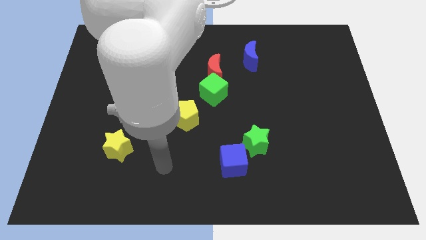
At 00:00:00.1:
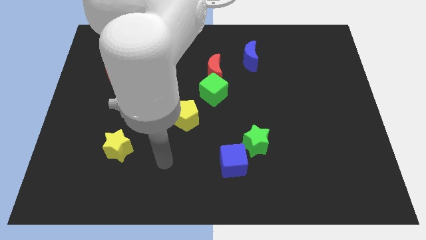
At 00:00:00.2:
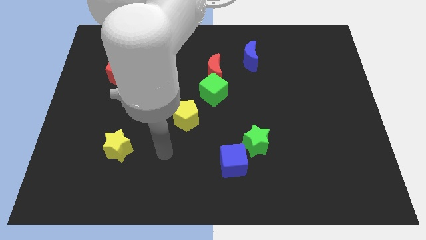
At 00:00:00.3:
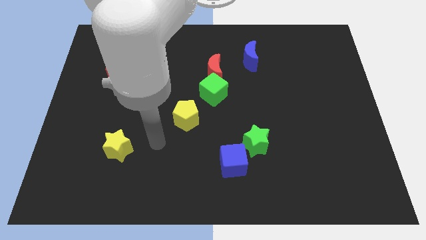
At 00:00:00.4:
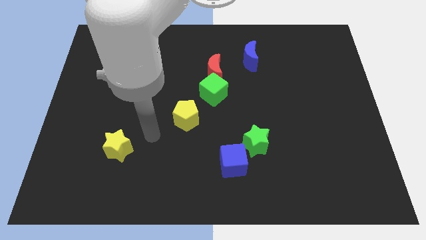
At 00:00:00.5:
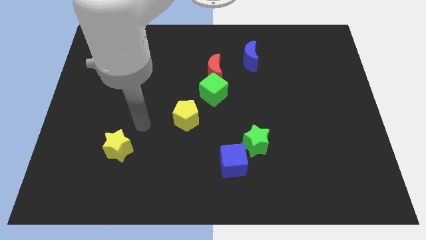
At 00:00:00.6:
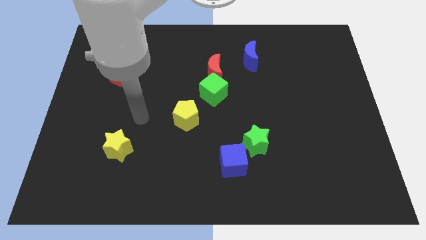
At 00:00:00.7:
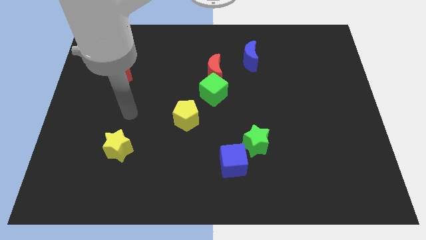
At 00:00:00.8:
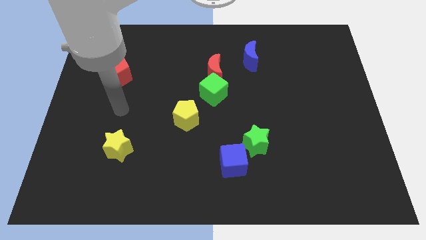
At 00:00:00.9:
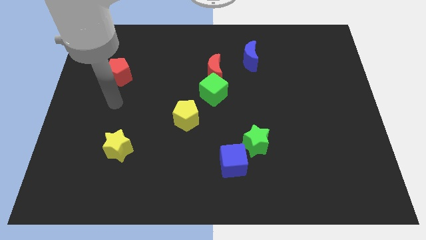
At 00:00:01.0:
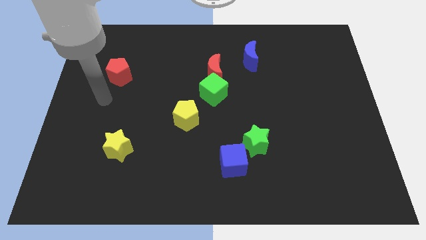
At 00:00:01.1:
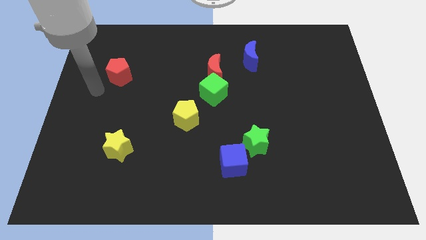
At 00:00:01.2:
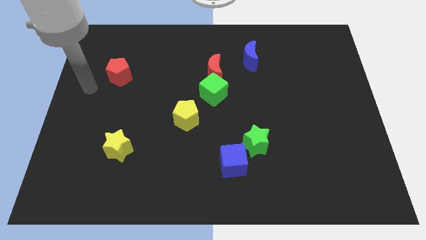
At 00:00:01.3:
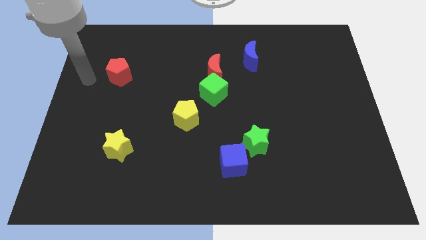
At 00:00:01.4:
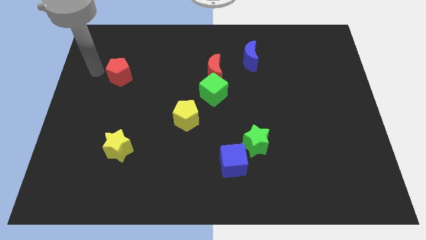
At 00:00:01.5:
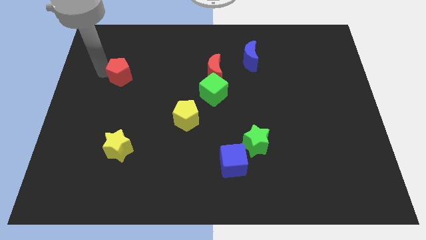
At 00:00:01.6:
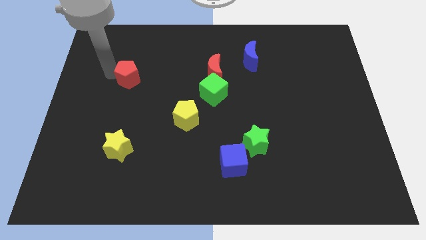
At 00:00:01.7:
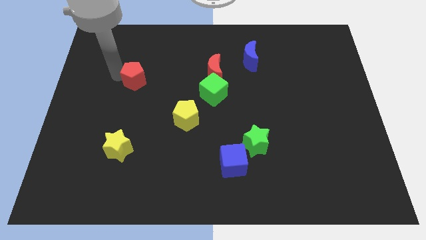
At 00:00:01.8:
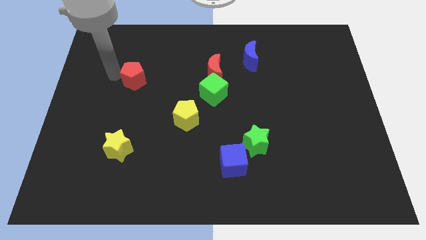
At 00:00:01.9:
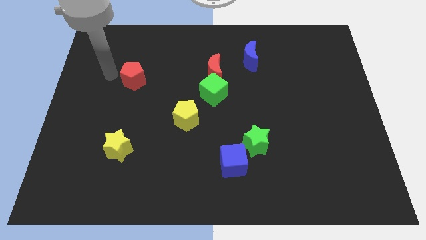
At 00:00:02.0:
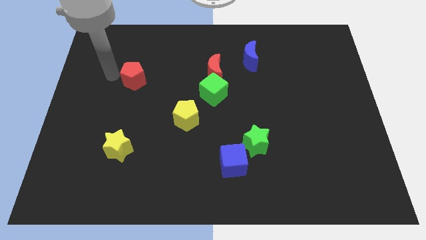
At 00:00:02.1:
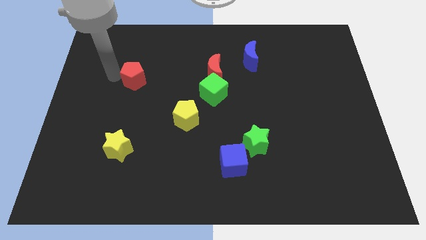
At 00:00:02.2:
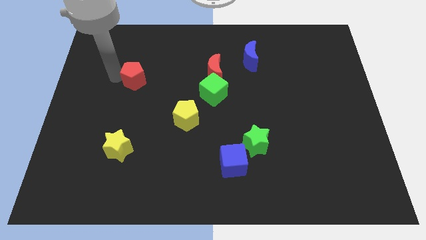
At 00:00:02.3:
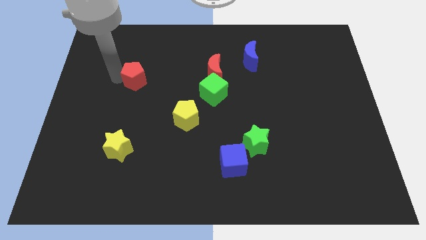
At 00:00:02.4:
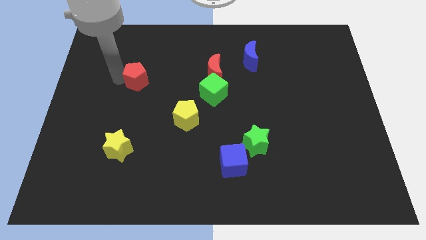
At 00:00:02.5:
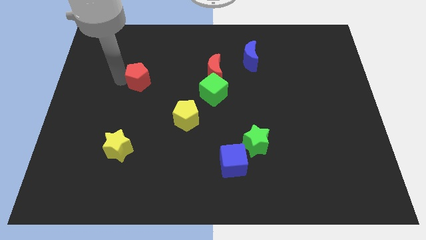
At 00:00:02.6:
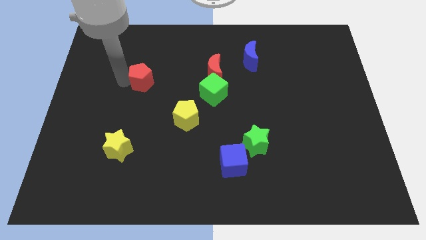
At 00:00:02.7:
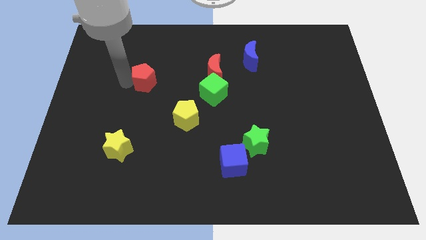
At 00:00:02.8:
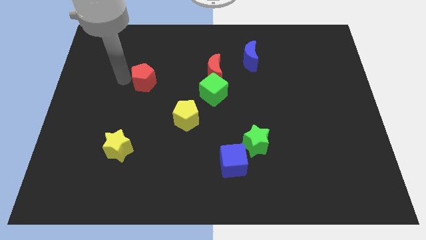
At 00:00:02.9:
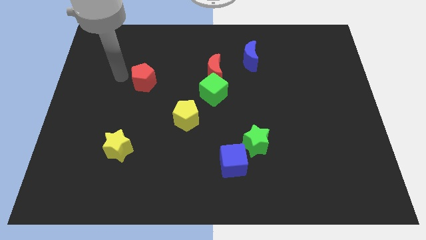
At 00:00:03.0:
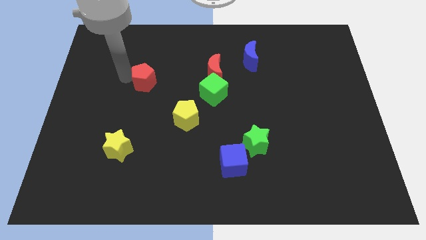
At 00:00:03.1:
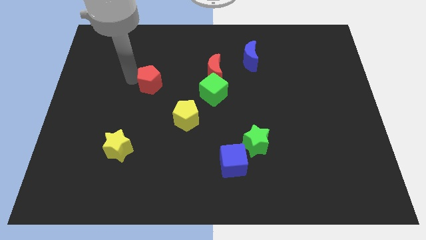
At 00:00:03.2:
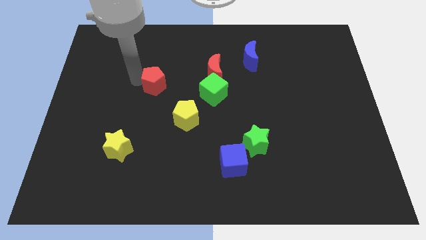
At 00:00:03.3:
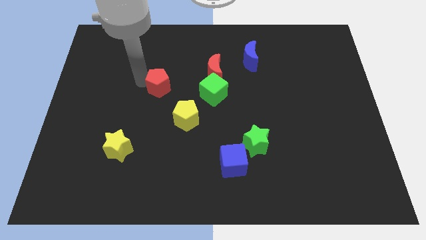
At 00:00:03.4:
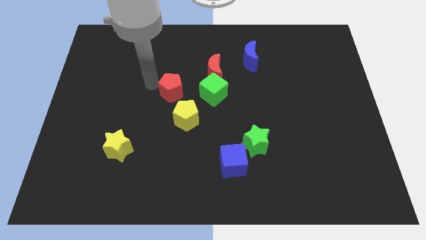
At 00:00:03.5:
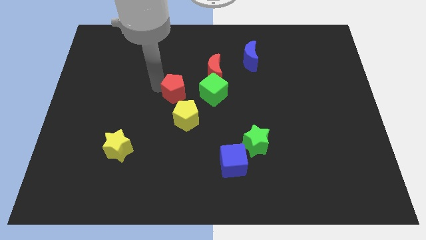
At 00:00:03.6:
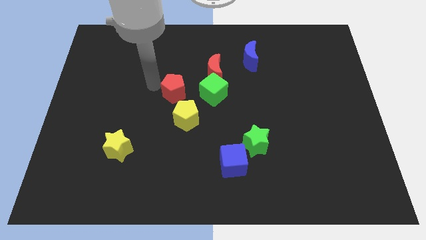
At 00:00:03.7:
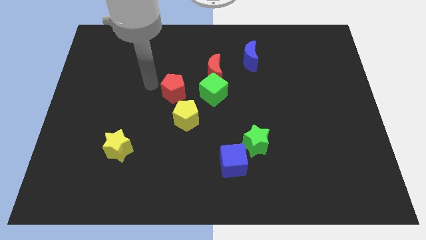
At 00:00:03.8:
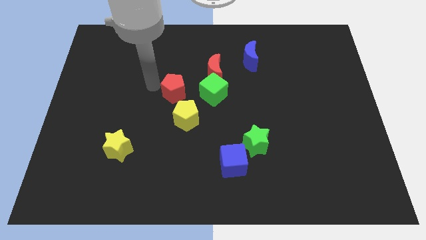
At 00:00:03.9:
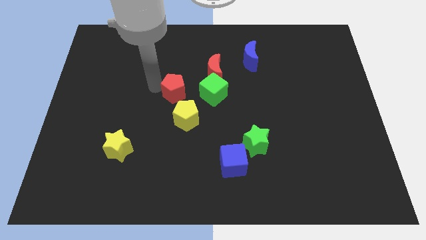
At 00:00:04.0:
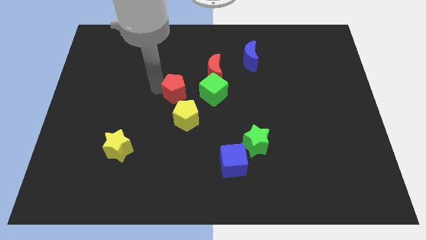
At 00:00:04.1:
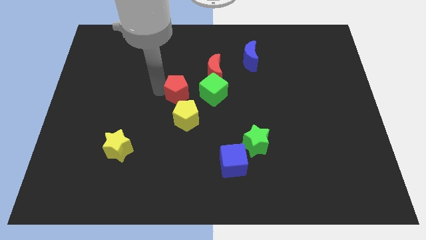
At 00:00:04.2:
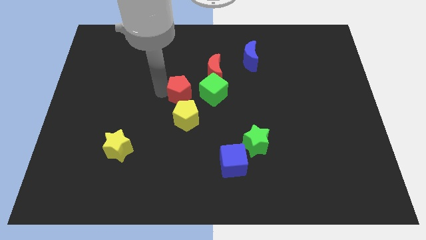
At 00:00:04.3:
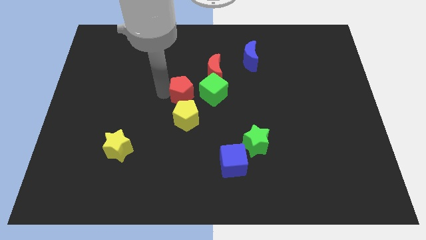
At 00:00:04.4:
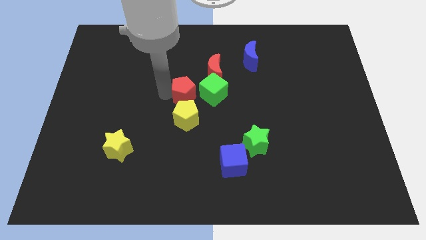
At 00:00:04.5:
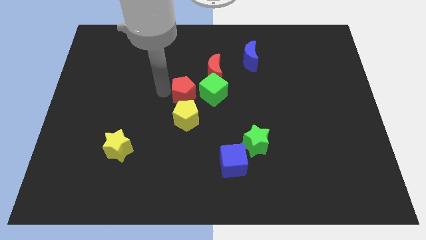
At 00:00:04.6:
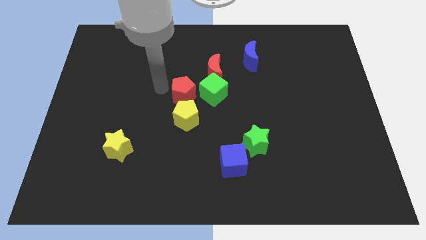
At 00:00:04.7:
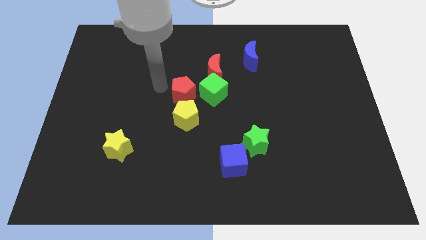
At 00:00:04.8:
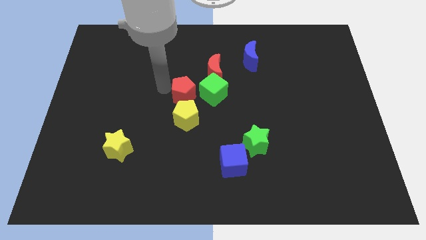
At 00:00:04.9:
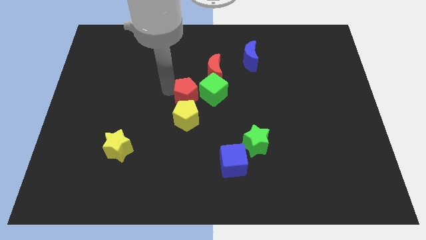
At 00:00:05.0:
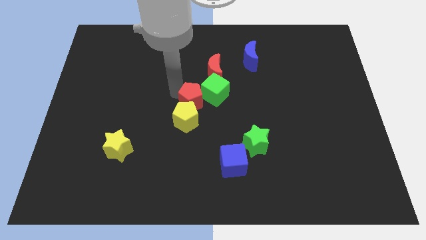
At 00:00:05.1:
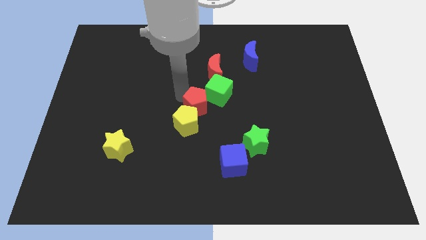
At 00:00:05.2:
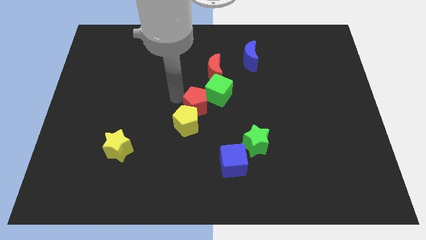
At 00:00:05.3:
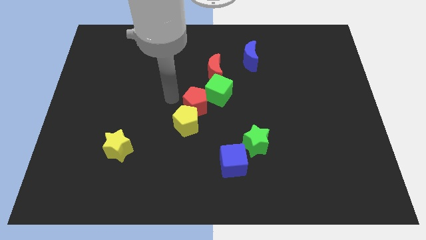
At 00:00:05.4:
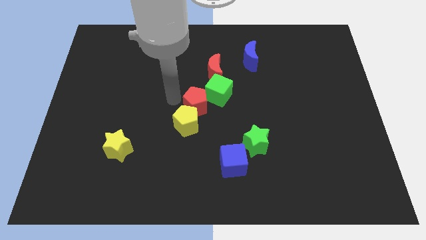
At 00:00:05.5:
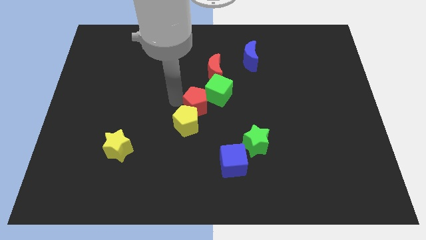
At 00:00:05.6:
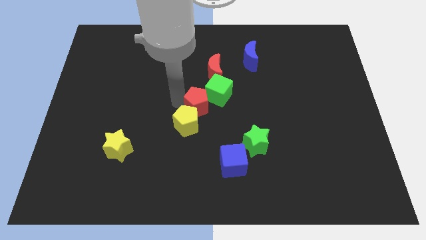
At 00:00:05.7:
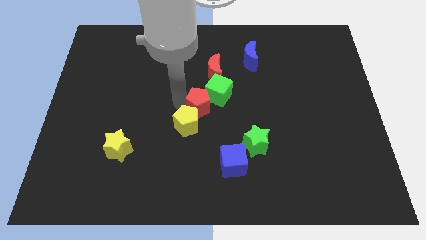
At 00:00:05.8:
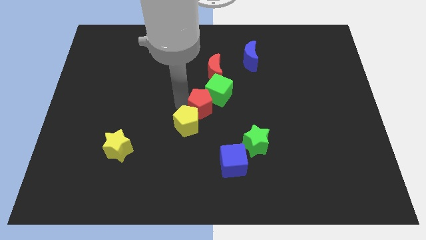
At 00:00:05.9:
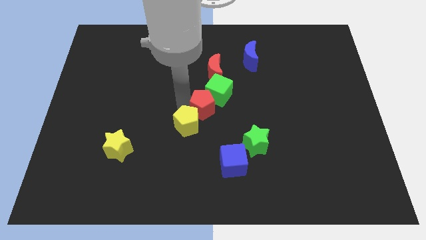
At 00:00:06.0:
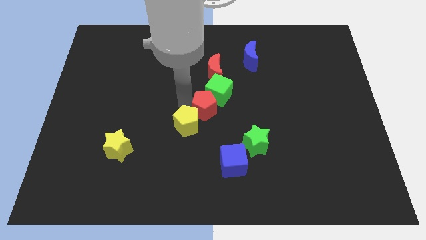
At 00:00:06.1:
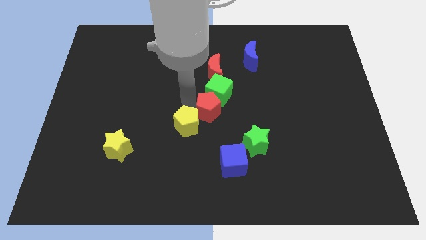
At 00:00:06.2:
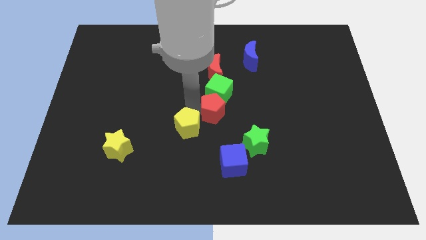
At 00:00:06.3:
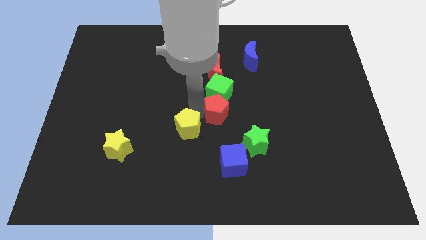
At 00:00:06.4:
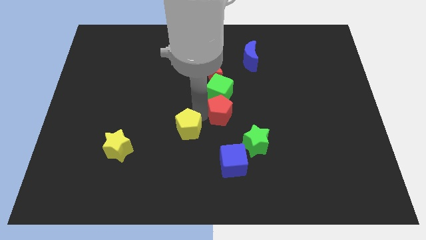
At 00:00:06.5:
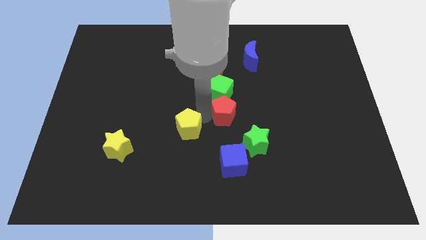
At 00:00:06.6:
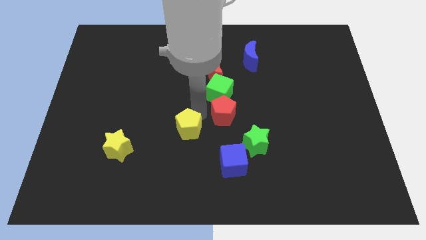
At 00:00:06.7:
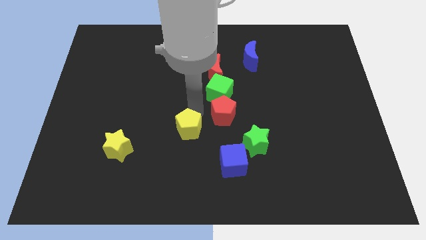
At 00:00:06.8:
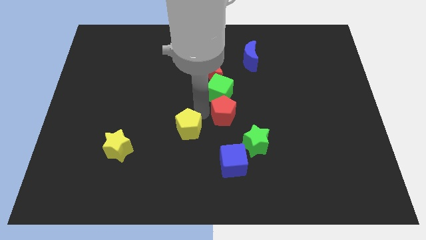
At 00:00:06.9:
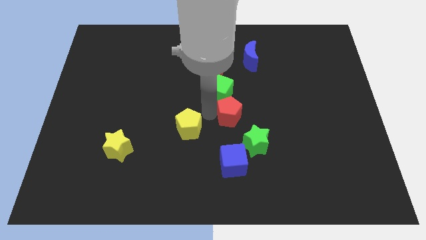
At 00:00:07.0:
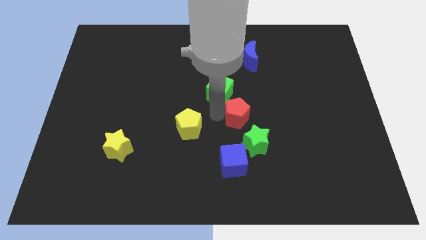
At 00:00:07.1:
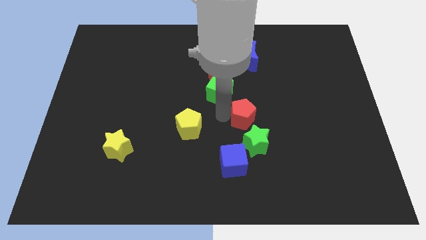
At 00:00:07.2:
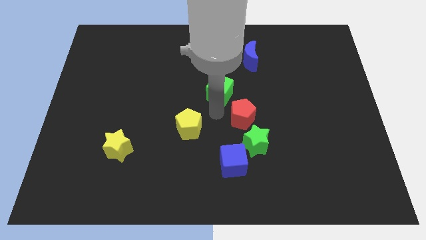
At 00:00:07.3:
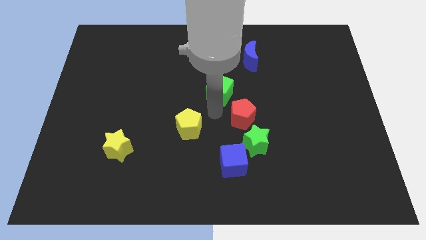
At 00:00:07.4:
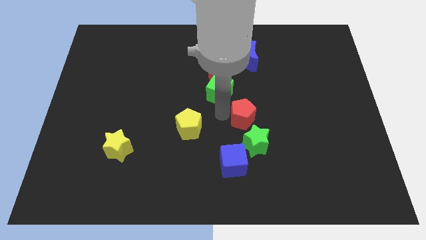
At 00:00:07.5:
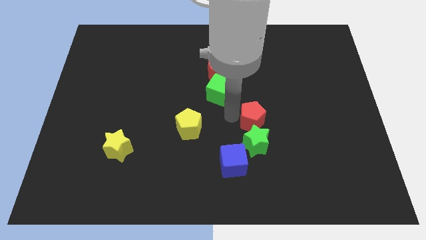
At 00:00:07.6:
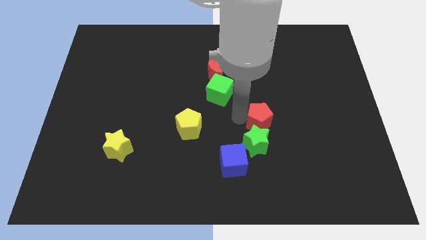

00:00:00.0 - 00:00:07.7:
move the red pentagon to the top right side of the green star
